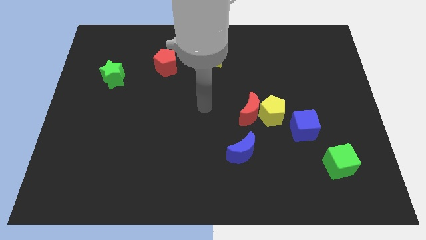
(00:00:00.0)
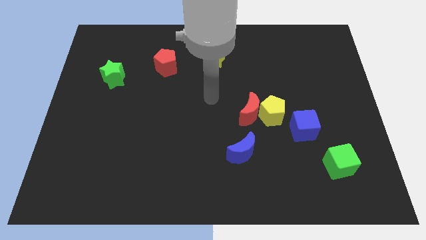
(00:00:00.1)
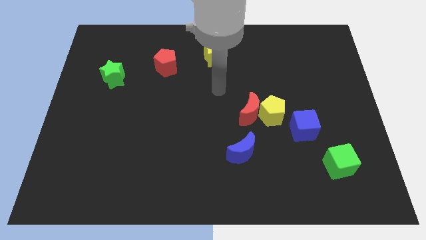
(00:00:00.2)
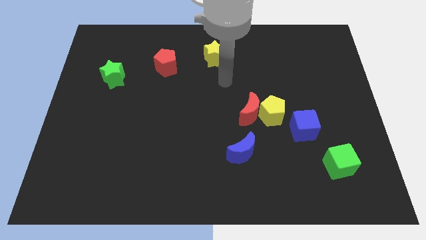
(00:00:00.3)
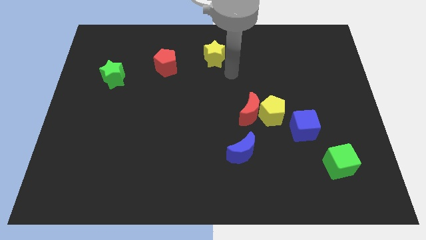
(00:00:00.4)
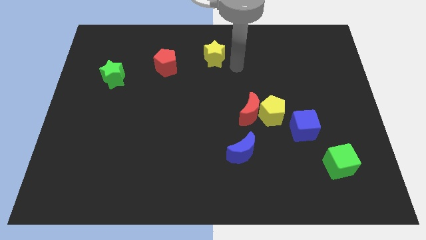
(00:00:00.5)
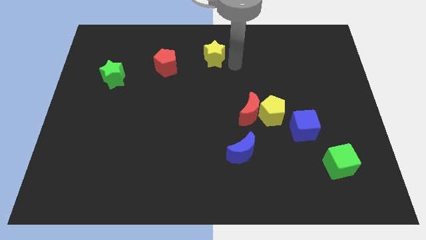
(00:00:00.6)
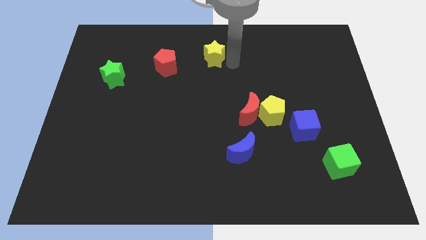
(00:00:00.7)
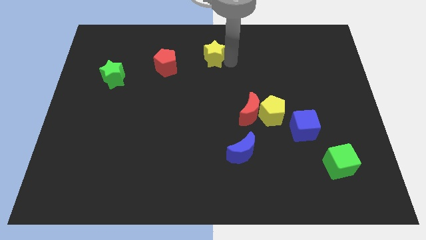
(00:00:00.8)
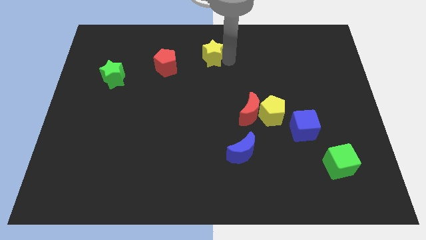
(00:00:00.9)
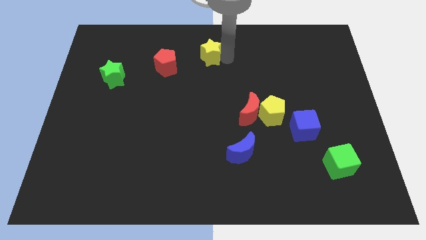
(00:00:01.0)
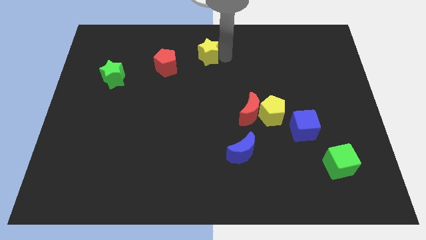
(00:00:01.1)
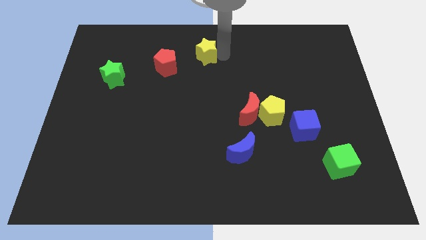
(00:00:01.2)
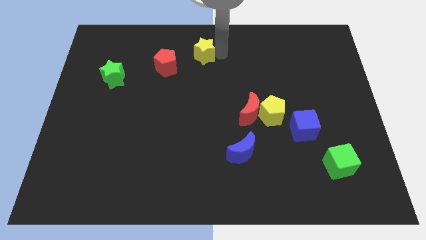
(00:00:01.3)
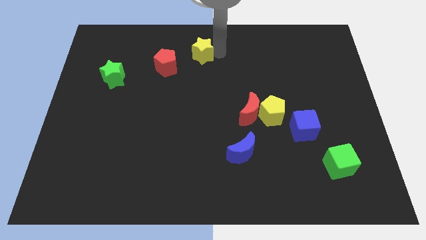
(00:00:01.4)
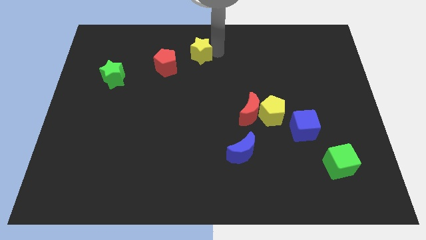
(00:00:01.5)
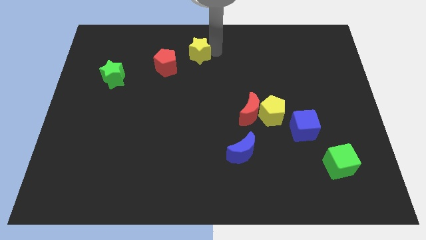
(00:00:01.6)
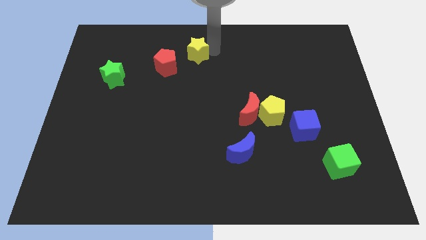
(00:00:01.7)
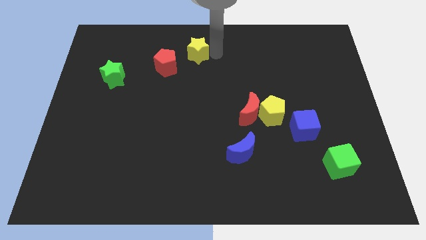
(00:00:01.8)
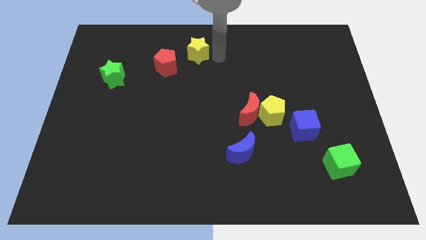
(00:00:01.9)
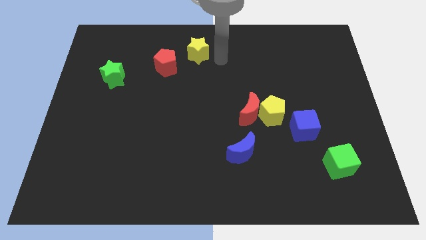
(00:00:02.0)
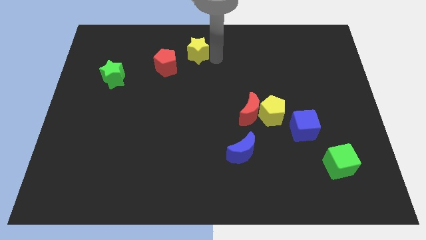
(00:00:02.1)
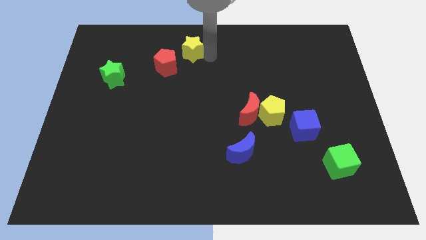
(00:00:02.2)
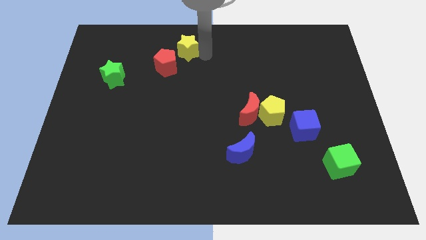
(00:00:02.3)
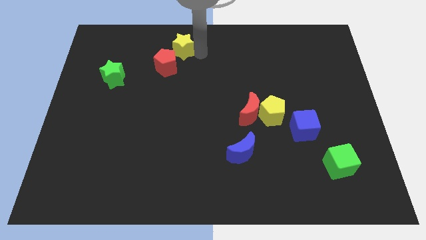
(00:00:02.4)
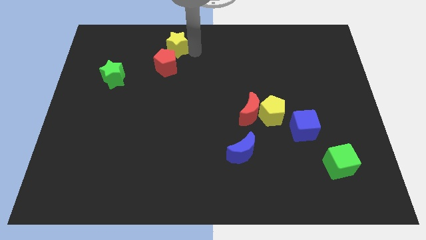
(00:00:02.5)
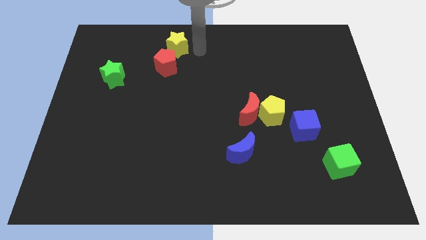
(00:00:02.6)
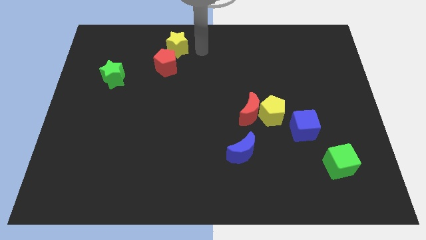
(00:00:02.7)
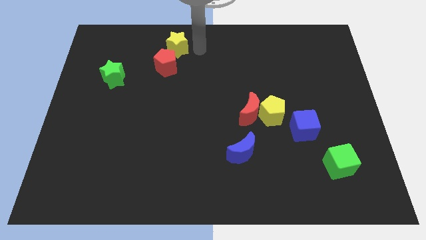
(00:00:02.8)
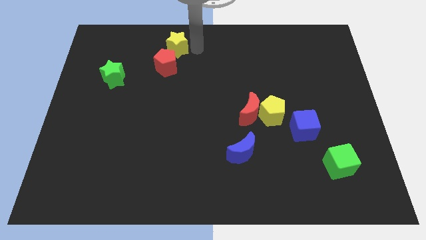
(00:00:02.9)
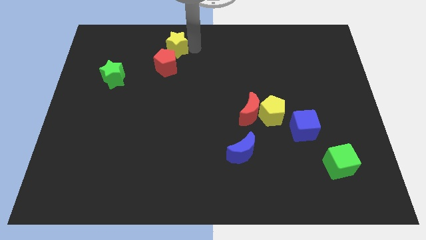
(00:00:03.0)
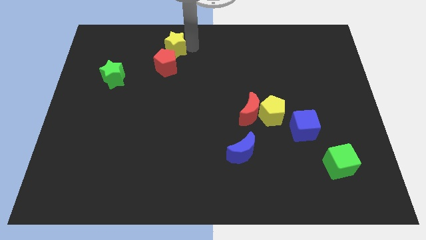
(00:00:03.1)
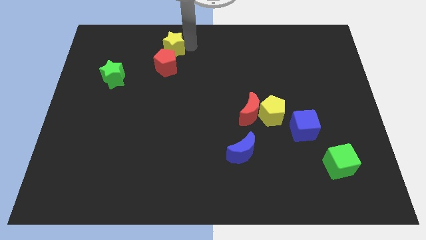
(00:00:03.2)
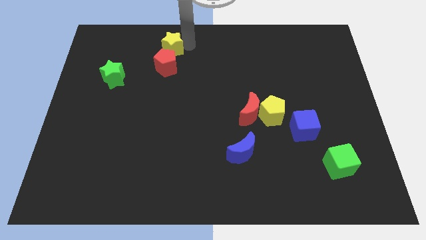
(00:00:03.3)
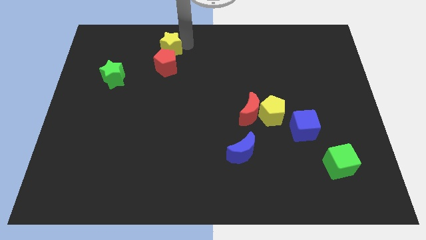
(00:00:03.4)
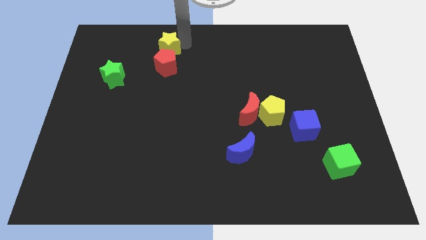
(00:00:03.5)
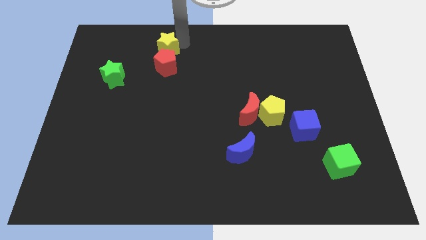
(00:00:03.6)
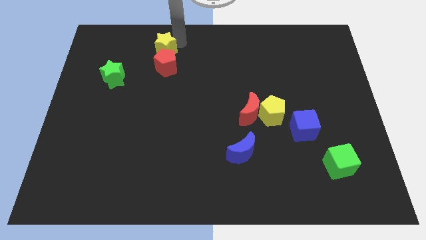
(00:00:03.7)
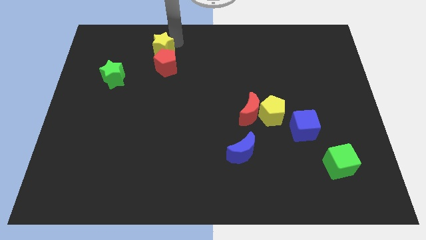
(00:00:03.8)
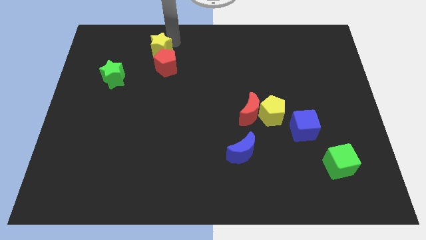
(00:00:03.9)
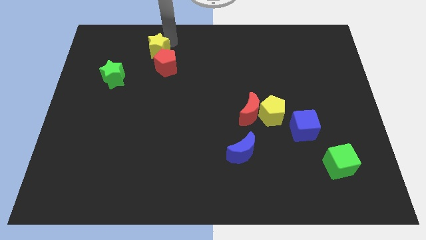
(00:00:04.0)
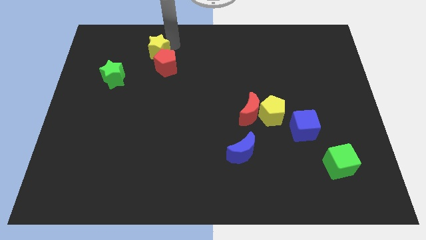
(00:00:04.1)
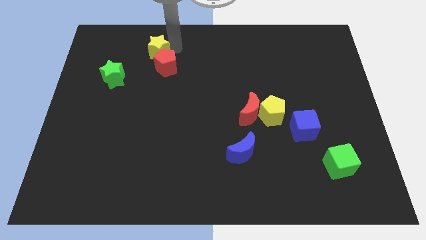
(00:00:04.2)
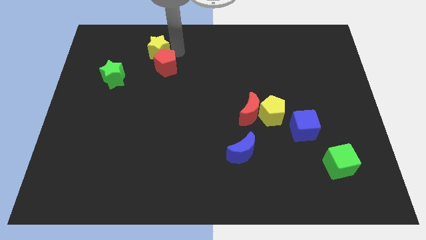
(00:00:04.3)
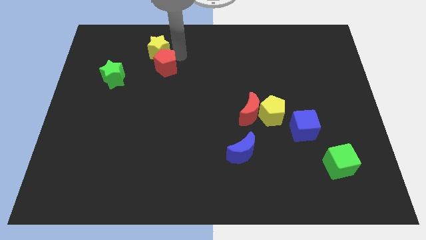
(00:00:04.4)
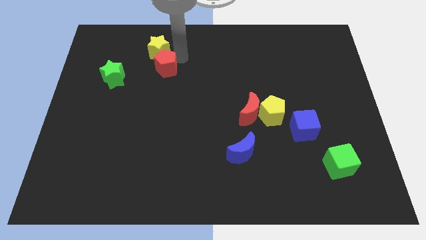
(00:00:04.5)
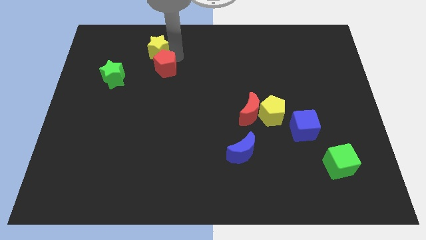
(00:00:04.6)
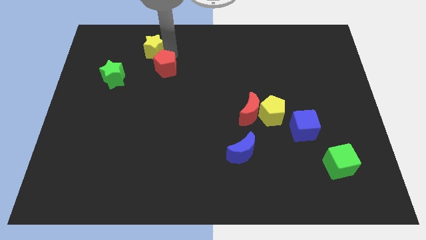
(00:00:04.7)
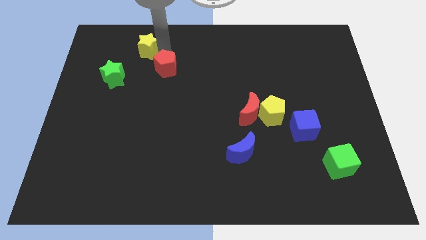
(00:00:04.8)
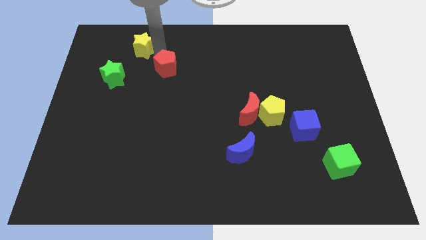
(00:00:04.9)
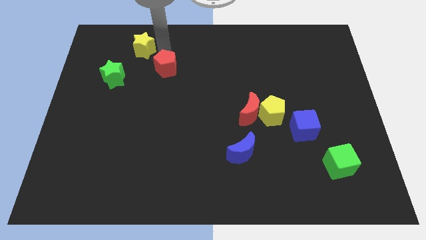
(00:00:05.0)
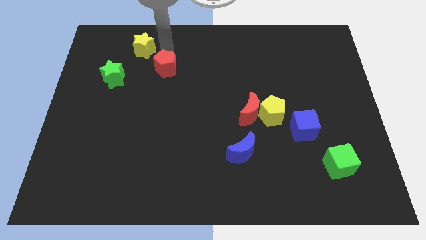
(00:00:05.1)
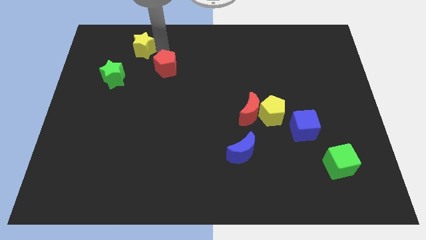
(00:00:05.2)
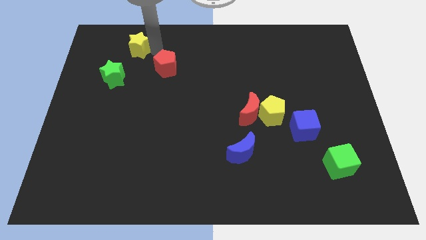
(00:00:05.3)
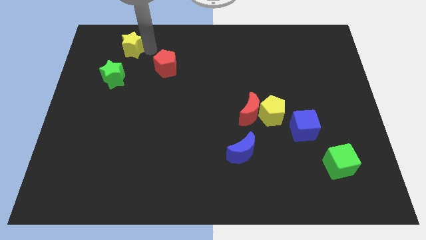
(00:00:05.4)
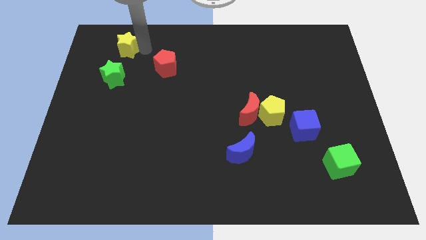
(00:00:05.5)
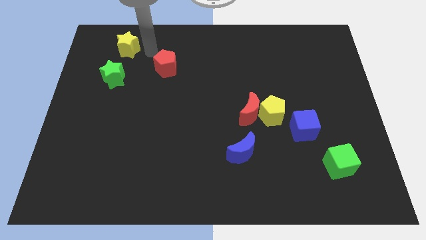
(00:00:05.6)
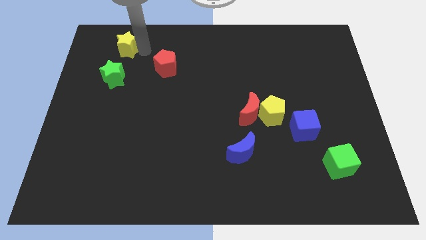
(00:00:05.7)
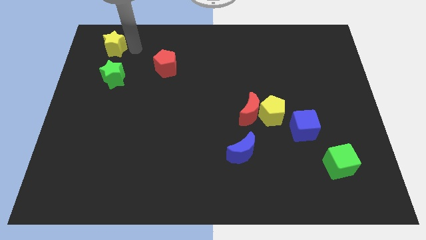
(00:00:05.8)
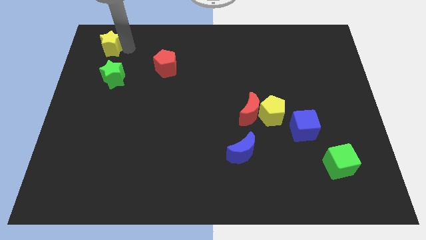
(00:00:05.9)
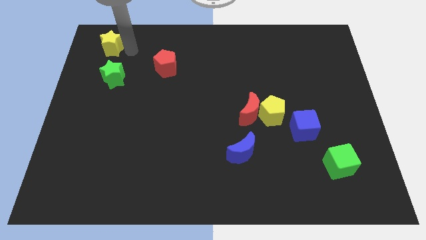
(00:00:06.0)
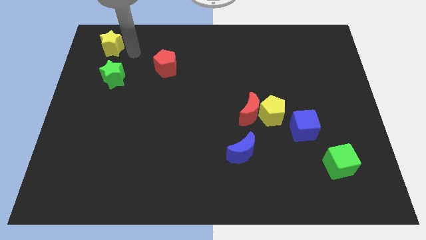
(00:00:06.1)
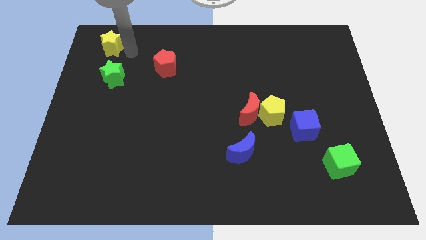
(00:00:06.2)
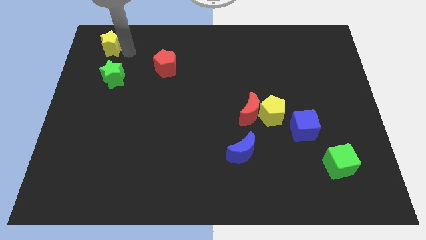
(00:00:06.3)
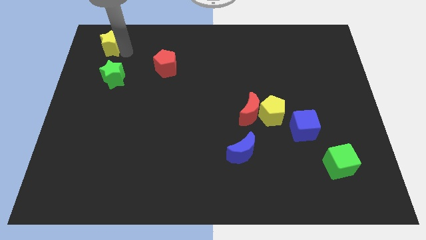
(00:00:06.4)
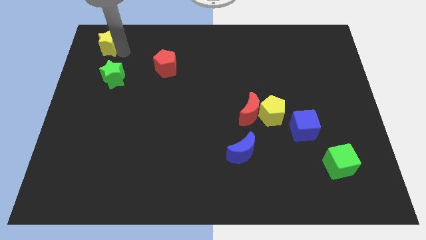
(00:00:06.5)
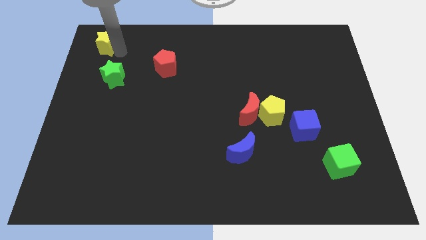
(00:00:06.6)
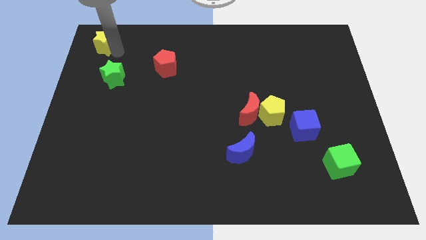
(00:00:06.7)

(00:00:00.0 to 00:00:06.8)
move the yellow star to the top left
